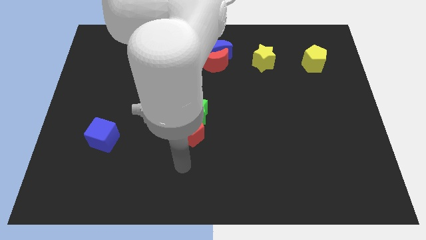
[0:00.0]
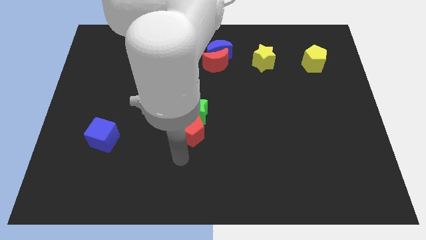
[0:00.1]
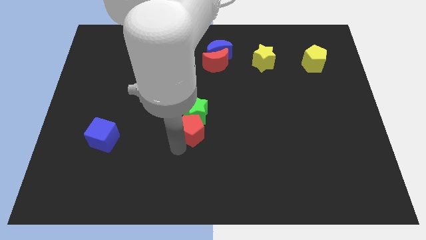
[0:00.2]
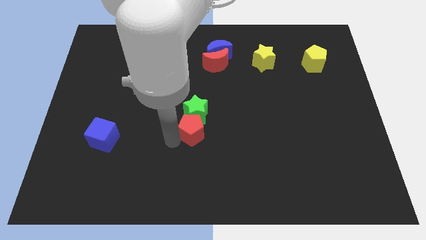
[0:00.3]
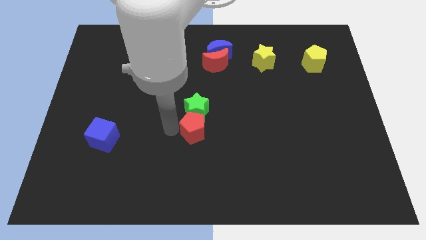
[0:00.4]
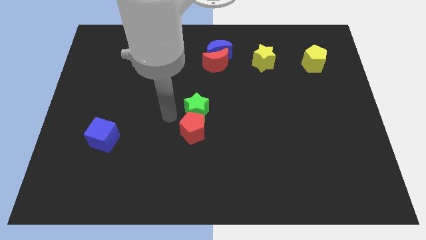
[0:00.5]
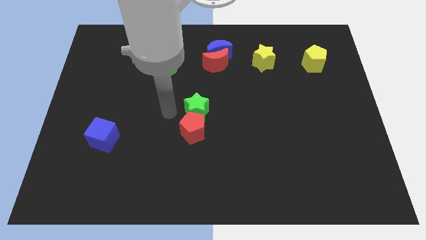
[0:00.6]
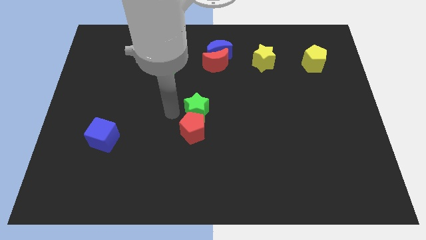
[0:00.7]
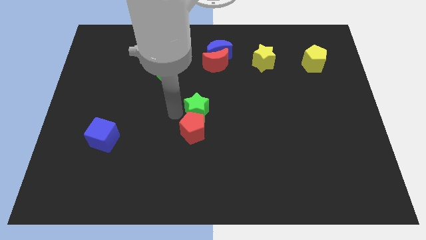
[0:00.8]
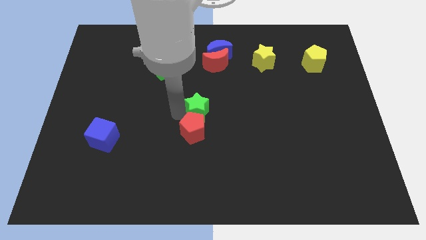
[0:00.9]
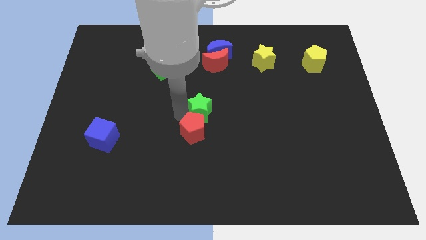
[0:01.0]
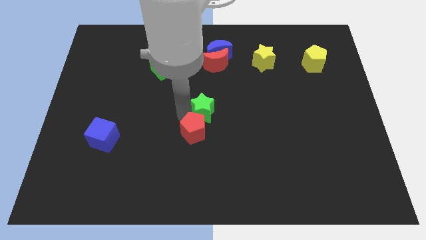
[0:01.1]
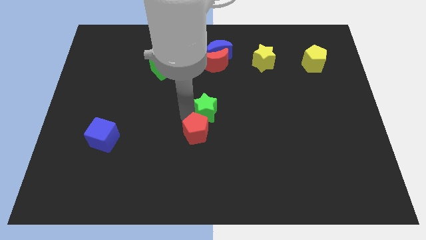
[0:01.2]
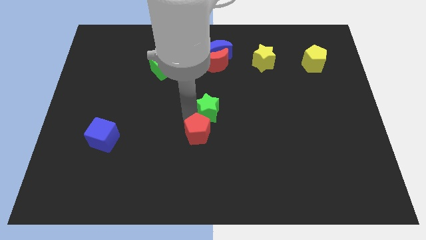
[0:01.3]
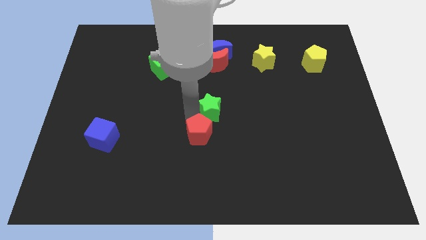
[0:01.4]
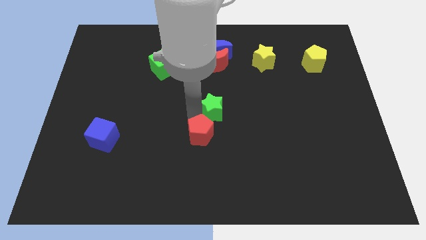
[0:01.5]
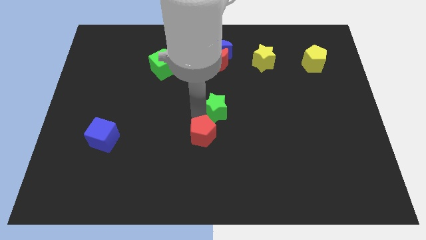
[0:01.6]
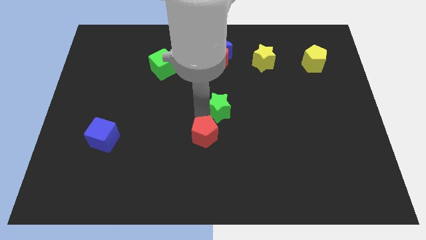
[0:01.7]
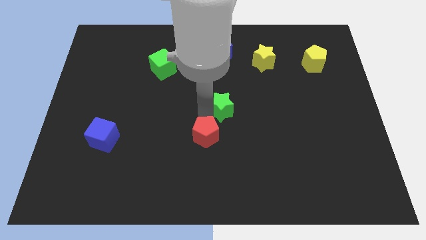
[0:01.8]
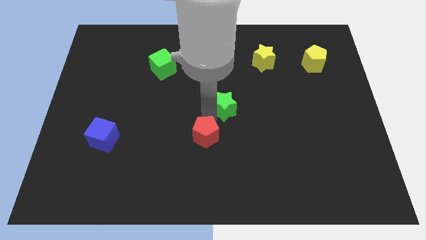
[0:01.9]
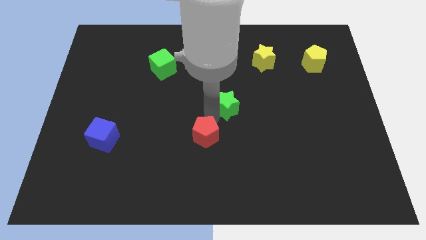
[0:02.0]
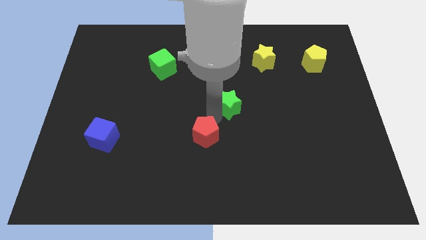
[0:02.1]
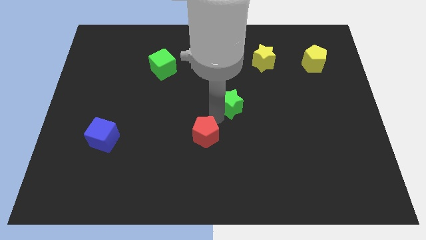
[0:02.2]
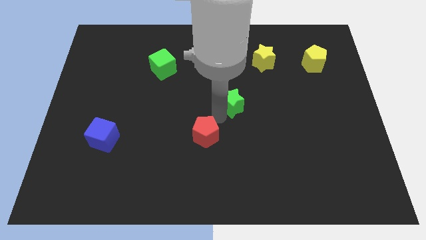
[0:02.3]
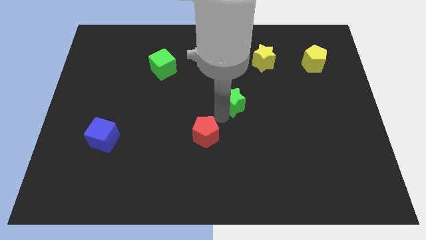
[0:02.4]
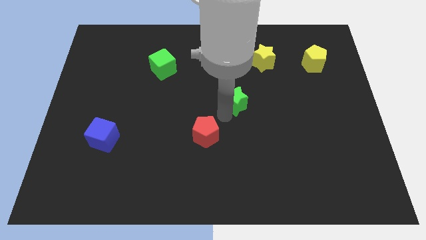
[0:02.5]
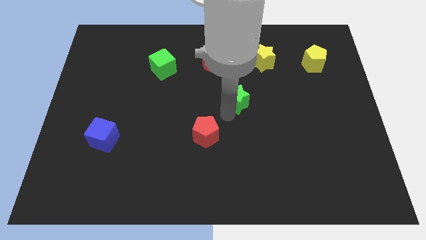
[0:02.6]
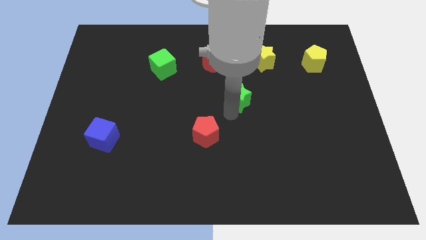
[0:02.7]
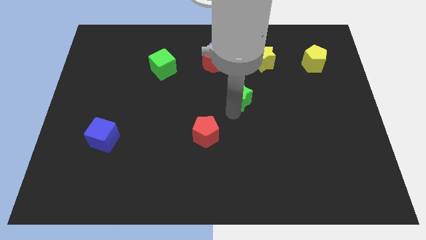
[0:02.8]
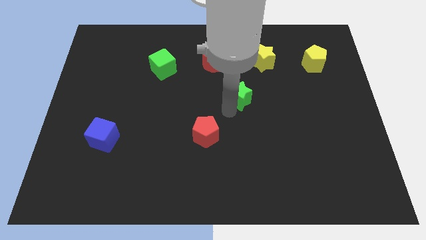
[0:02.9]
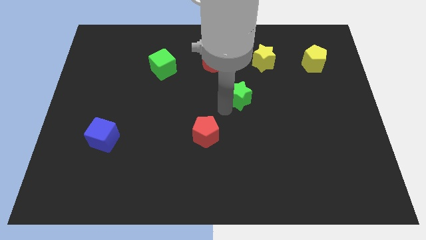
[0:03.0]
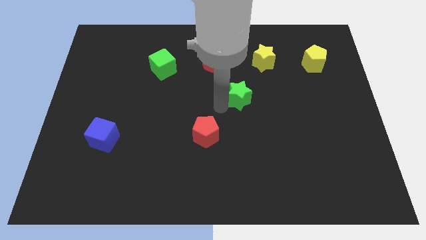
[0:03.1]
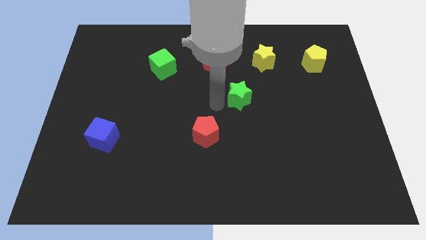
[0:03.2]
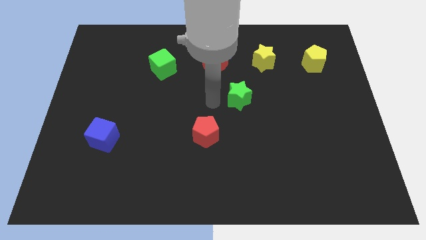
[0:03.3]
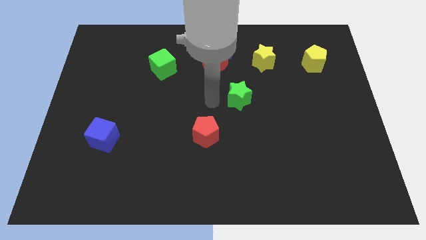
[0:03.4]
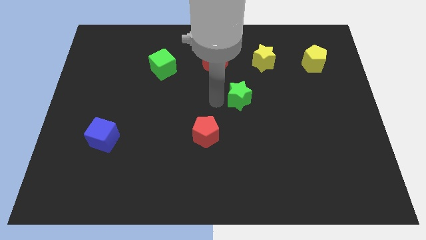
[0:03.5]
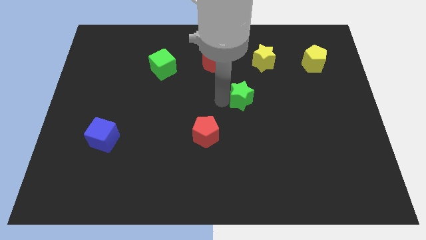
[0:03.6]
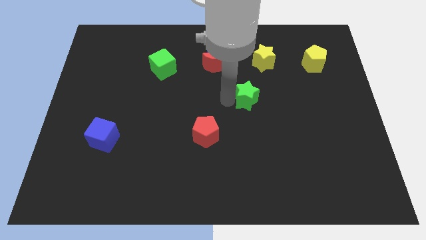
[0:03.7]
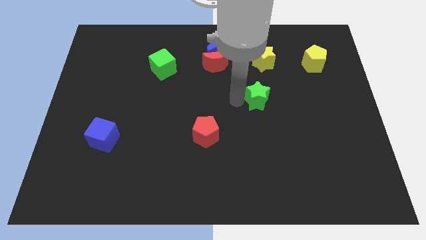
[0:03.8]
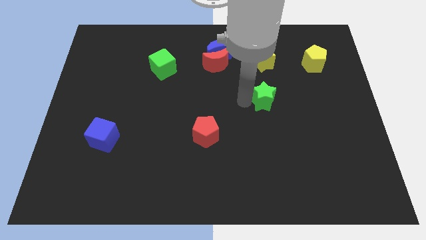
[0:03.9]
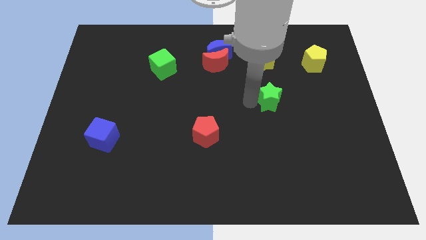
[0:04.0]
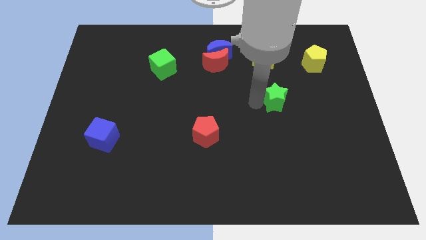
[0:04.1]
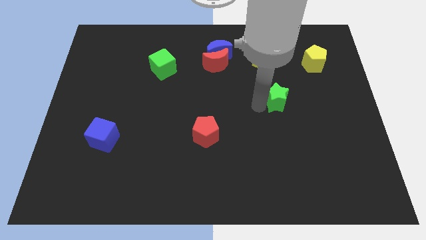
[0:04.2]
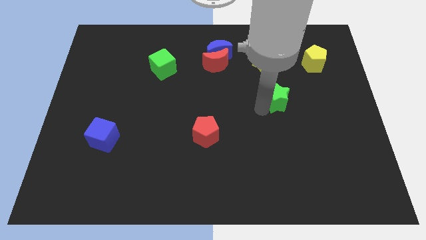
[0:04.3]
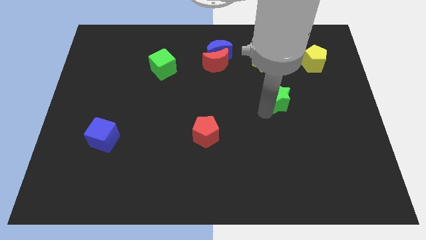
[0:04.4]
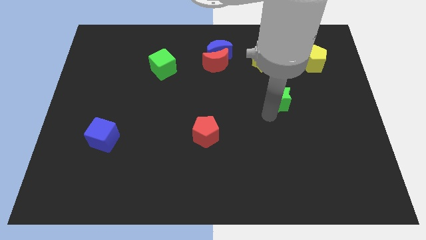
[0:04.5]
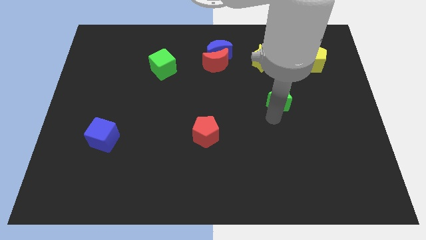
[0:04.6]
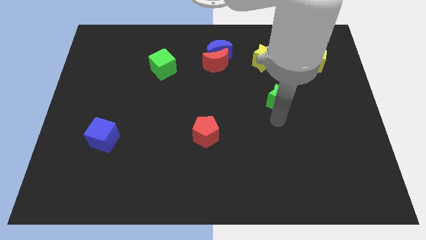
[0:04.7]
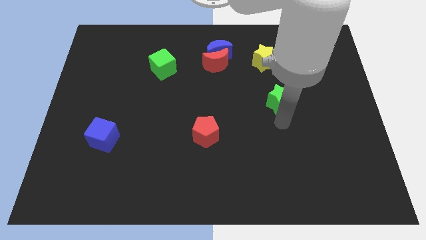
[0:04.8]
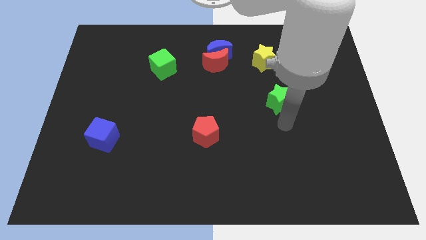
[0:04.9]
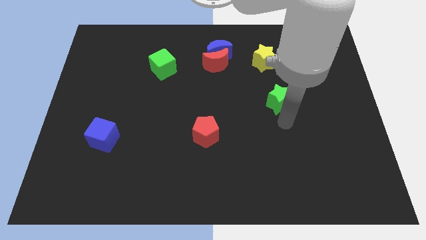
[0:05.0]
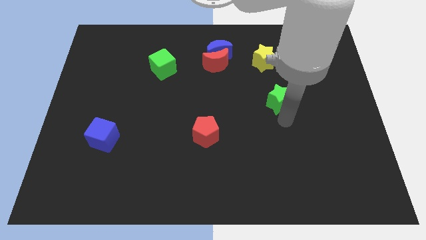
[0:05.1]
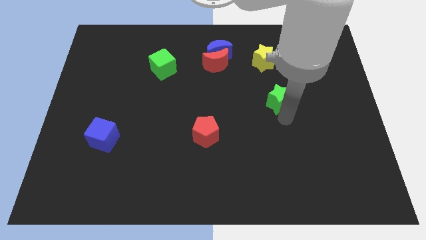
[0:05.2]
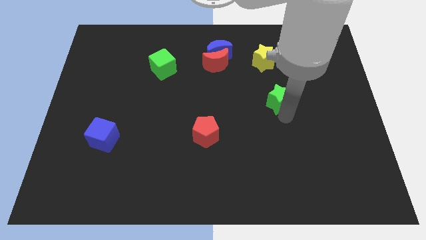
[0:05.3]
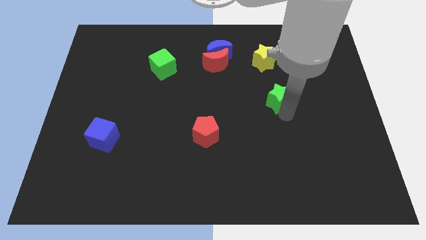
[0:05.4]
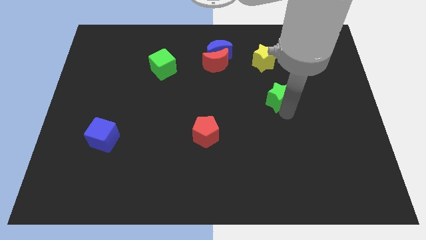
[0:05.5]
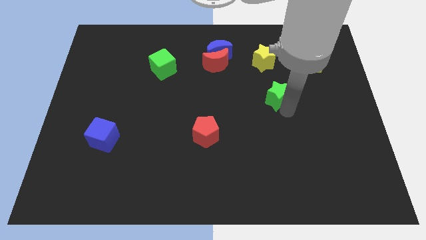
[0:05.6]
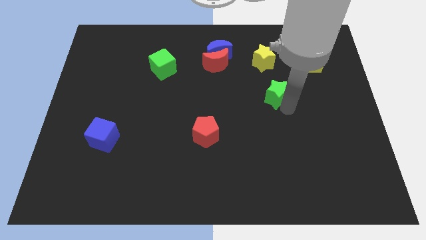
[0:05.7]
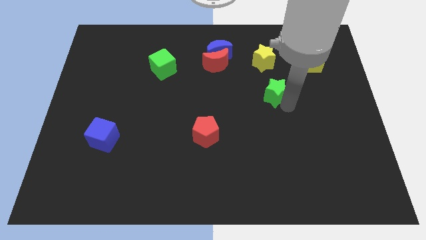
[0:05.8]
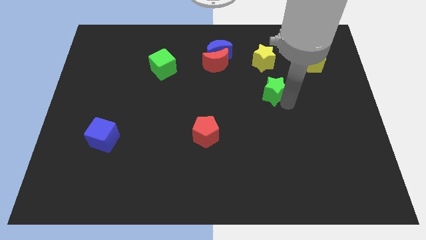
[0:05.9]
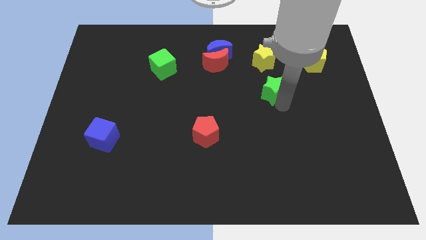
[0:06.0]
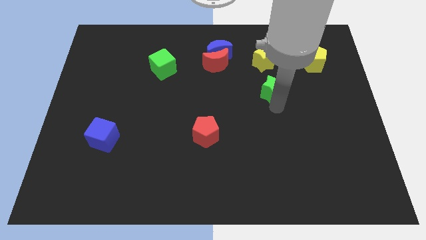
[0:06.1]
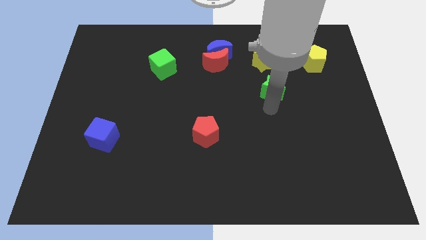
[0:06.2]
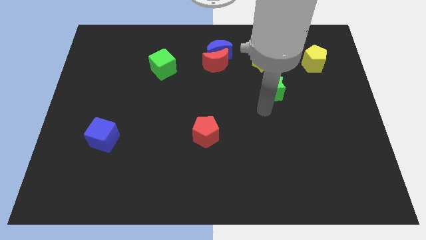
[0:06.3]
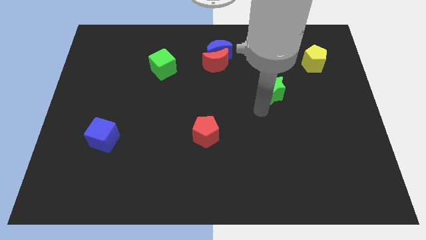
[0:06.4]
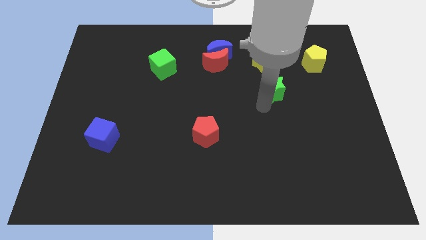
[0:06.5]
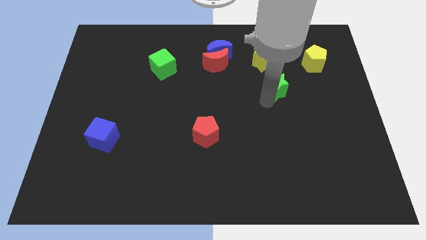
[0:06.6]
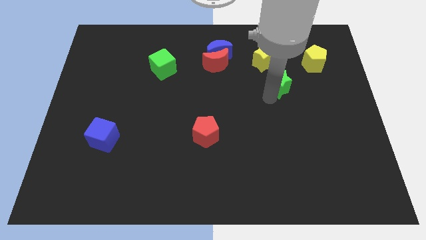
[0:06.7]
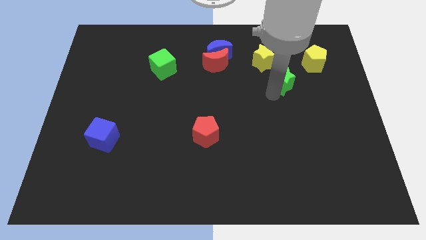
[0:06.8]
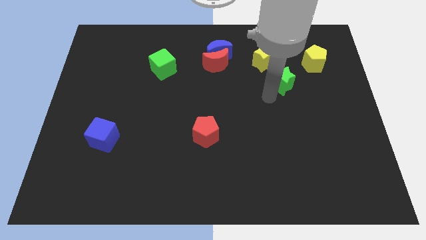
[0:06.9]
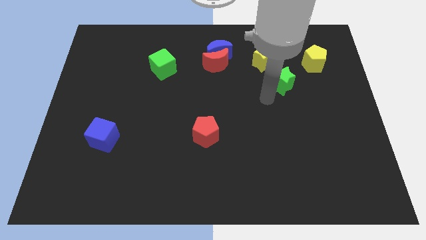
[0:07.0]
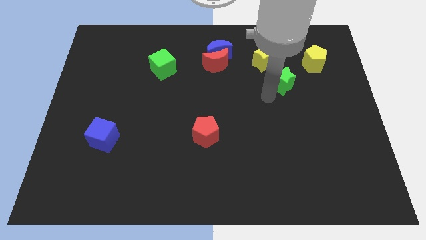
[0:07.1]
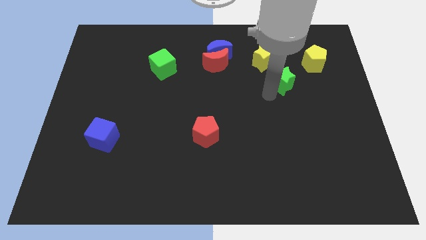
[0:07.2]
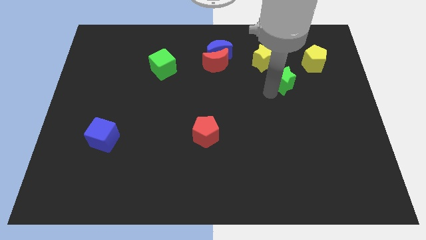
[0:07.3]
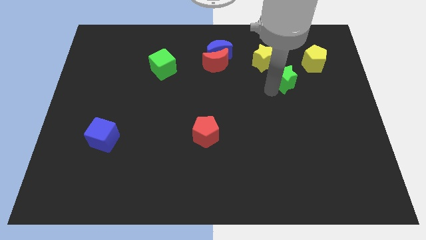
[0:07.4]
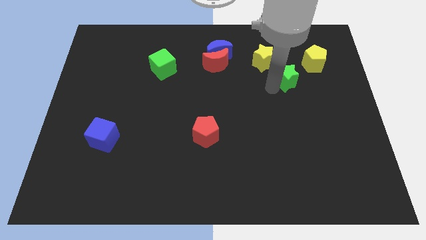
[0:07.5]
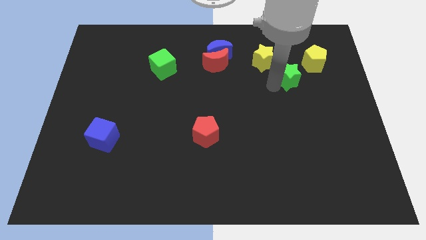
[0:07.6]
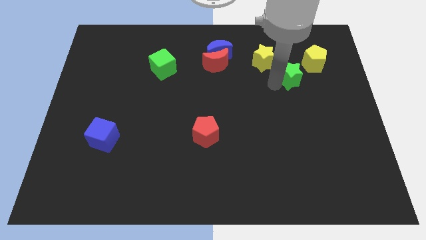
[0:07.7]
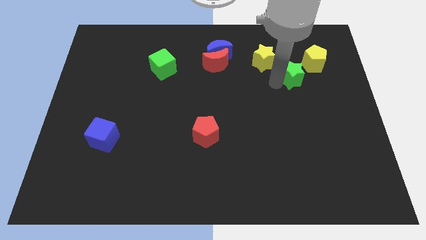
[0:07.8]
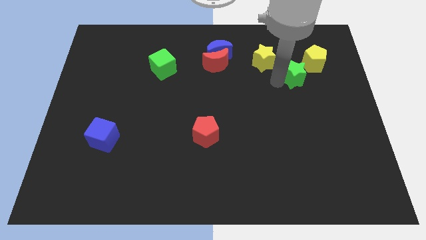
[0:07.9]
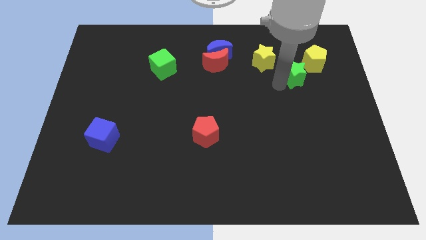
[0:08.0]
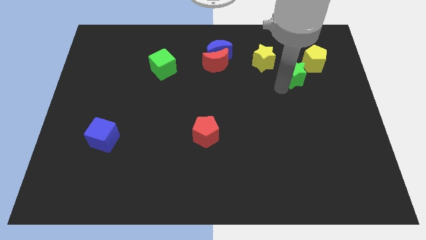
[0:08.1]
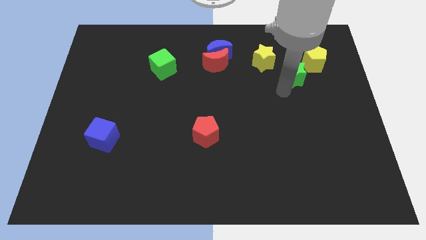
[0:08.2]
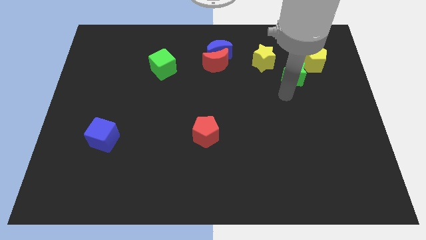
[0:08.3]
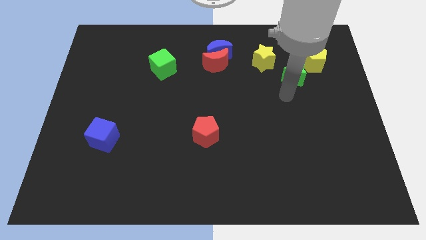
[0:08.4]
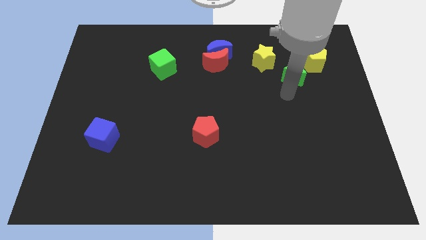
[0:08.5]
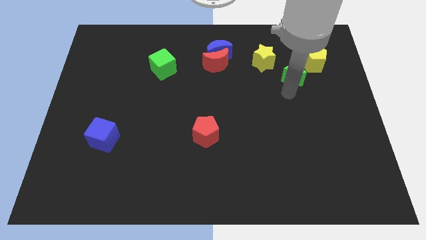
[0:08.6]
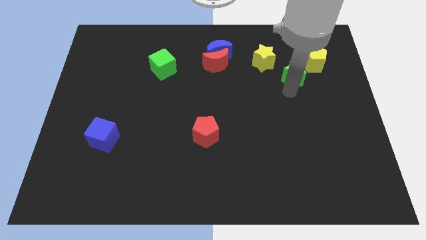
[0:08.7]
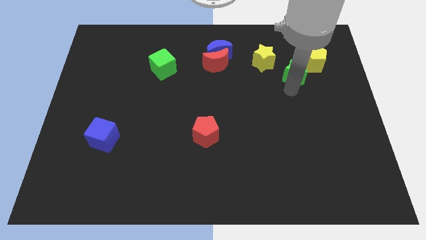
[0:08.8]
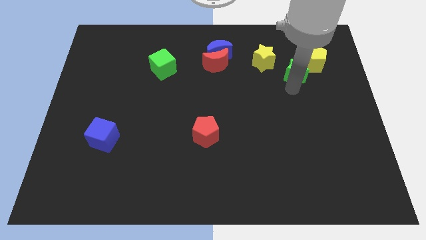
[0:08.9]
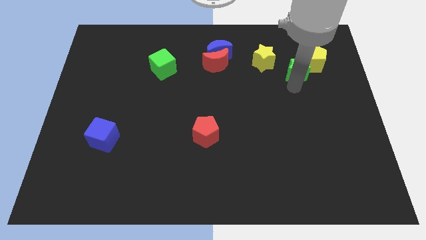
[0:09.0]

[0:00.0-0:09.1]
slide the green star to the yellow pentagon
